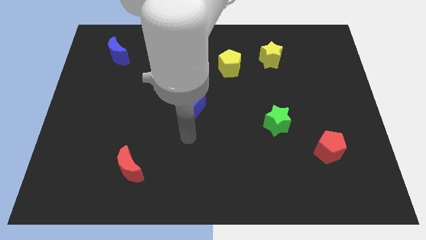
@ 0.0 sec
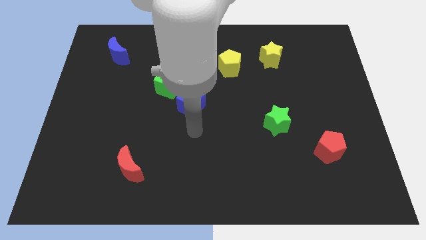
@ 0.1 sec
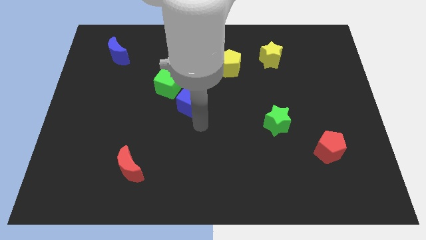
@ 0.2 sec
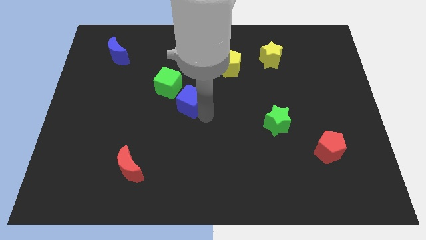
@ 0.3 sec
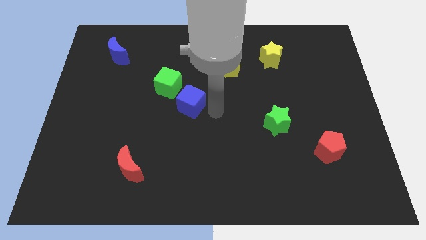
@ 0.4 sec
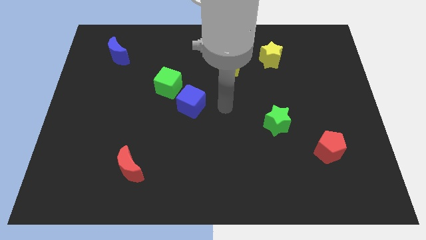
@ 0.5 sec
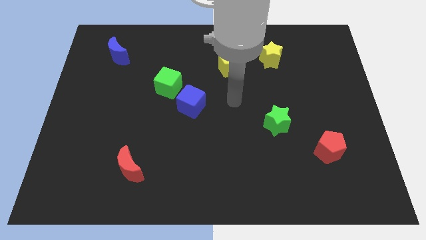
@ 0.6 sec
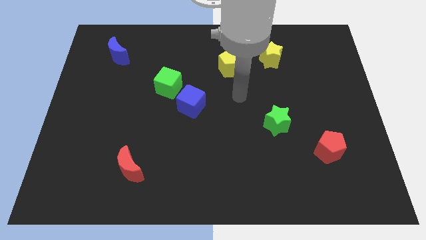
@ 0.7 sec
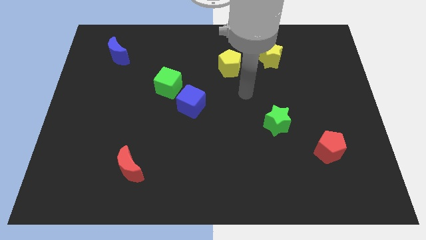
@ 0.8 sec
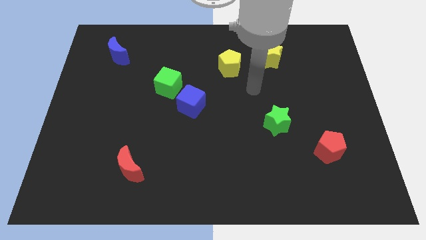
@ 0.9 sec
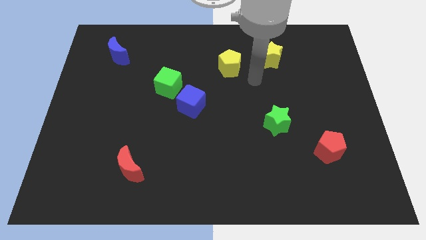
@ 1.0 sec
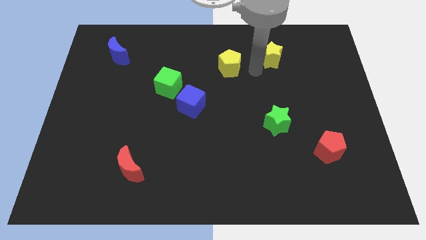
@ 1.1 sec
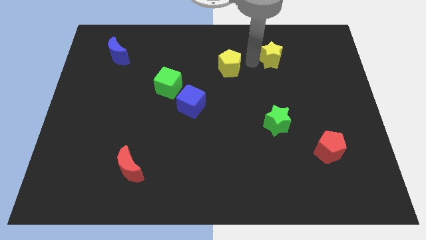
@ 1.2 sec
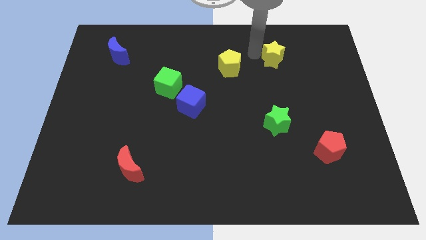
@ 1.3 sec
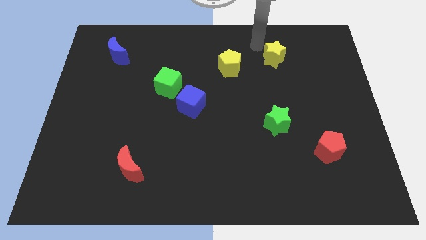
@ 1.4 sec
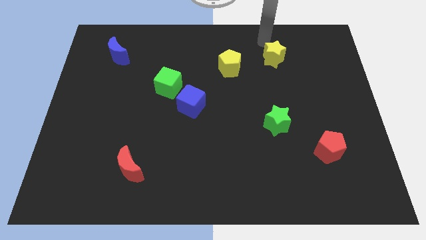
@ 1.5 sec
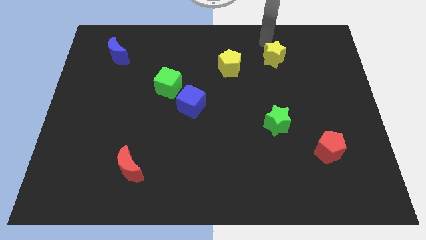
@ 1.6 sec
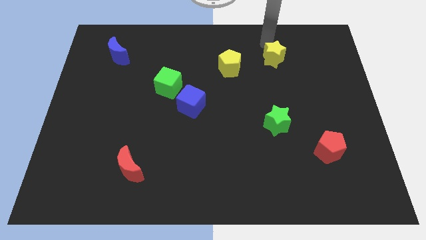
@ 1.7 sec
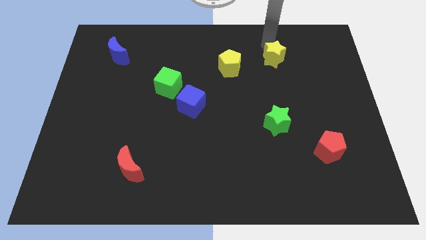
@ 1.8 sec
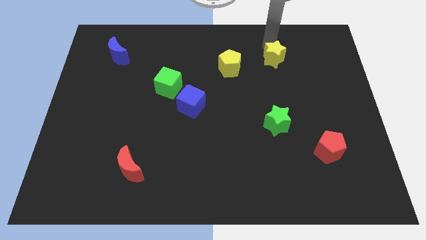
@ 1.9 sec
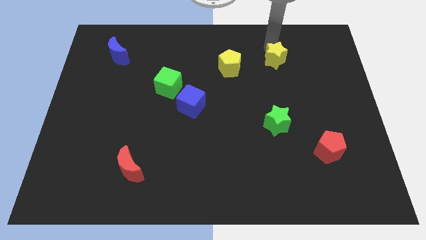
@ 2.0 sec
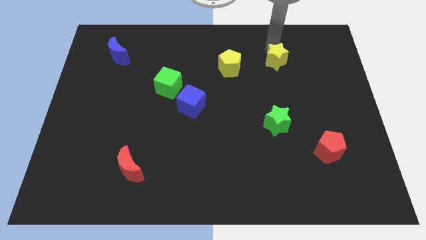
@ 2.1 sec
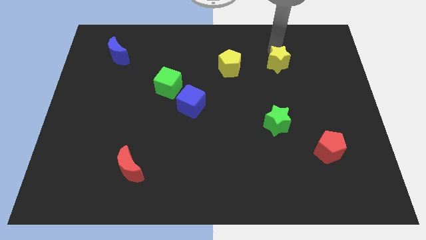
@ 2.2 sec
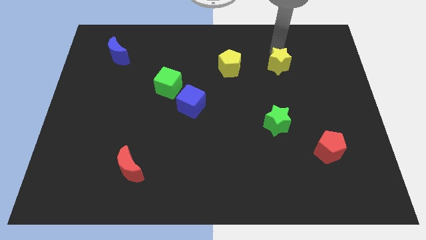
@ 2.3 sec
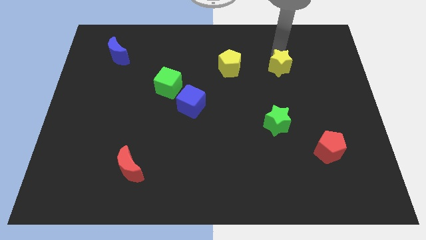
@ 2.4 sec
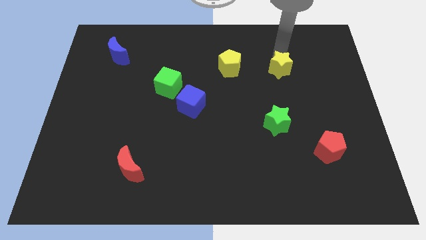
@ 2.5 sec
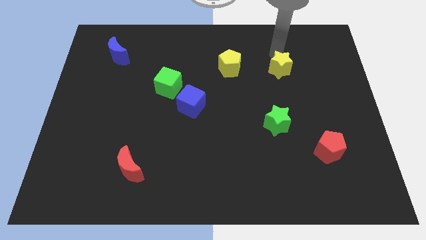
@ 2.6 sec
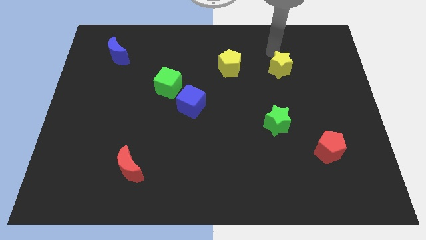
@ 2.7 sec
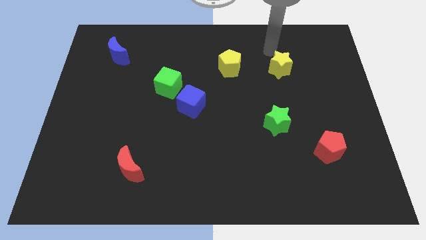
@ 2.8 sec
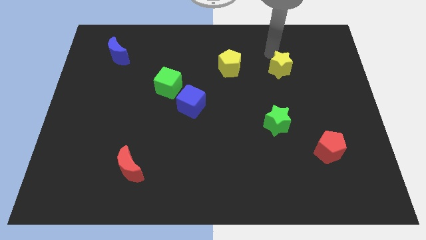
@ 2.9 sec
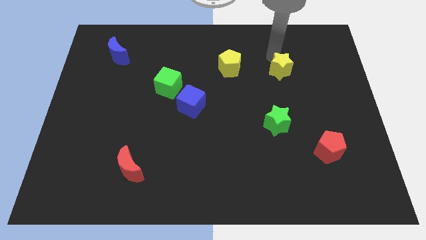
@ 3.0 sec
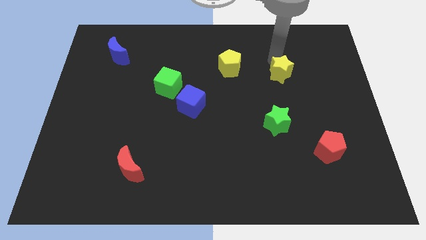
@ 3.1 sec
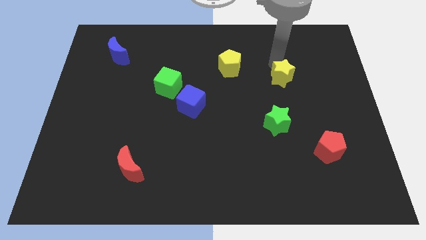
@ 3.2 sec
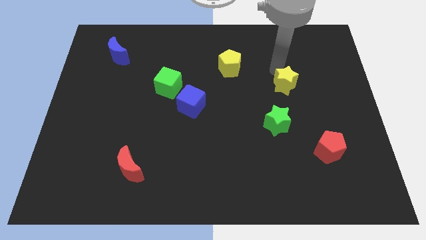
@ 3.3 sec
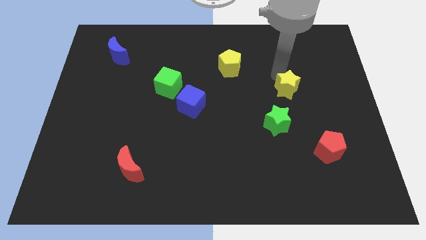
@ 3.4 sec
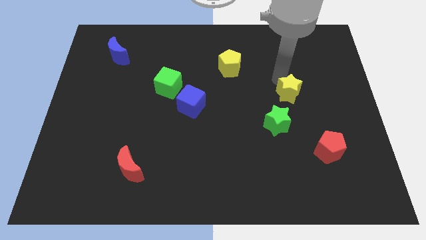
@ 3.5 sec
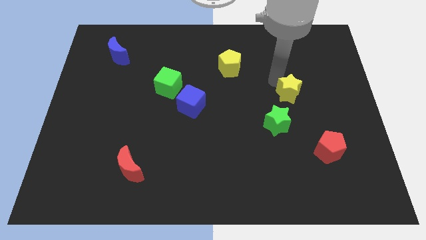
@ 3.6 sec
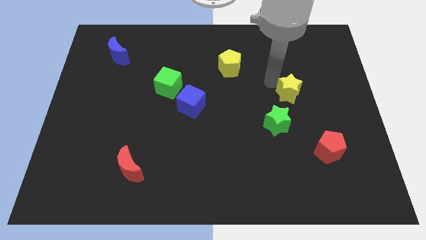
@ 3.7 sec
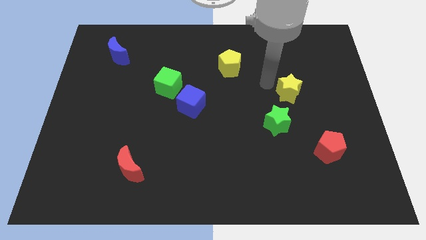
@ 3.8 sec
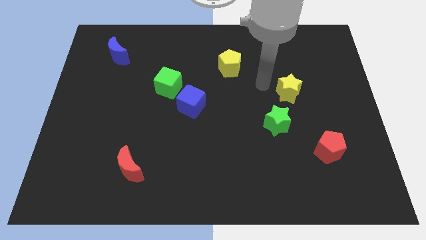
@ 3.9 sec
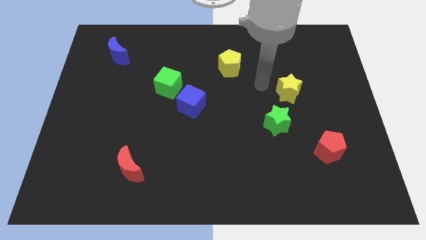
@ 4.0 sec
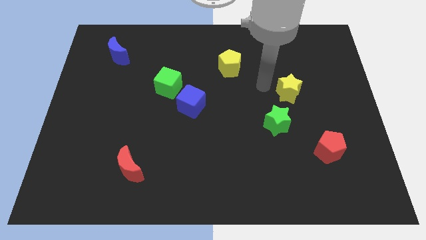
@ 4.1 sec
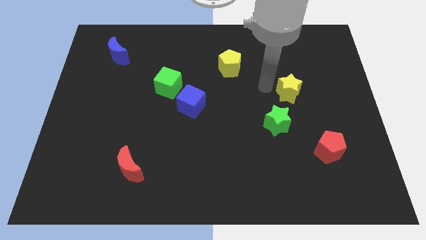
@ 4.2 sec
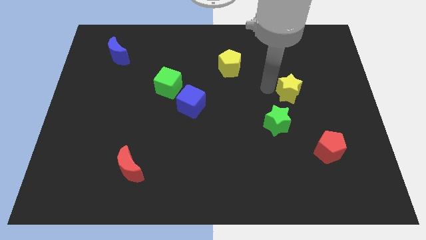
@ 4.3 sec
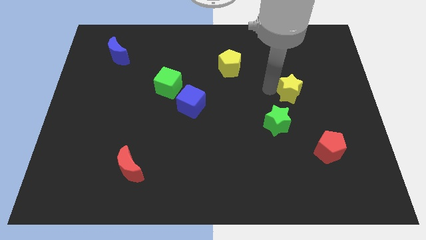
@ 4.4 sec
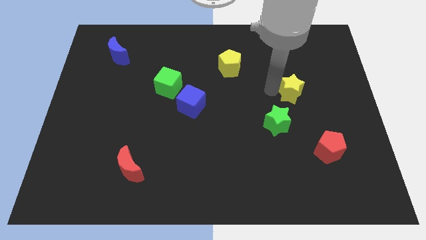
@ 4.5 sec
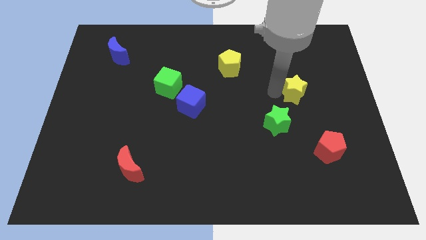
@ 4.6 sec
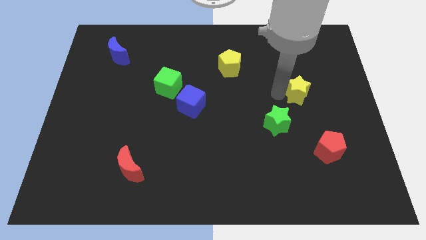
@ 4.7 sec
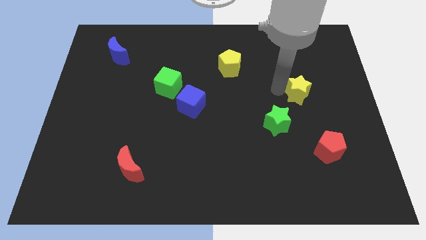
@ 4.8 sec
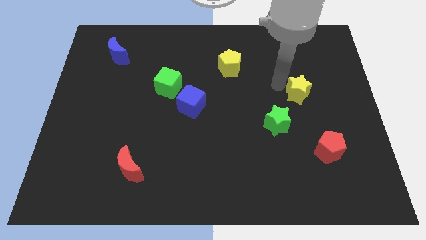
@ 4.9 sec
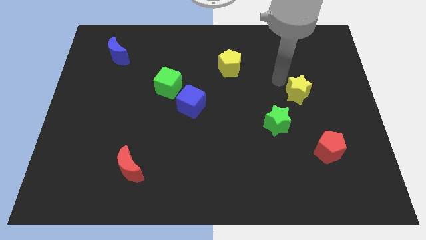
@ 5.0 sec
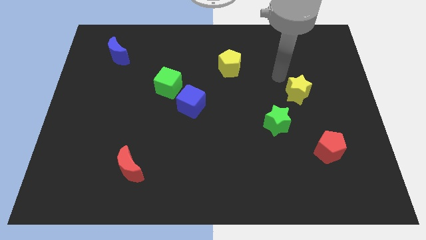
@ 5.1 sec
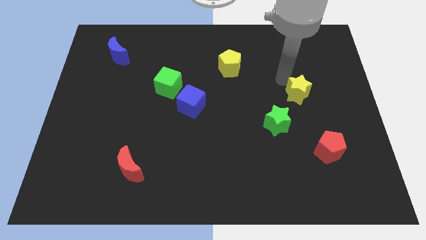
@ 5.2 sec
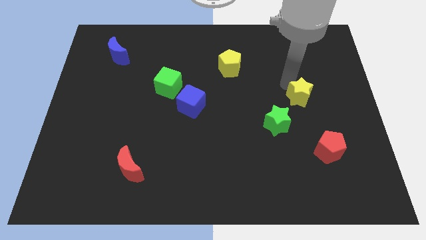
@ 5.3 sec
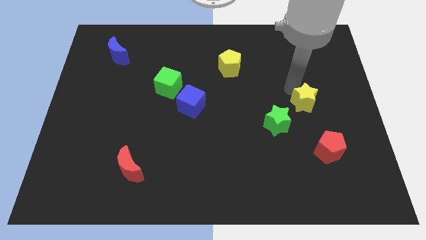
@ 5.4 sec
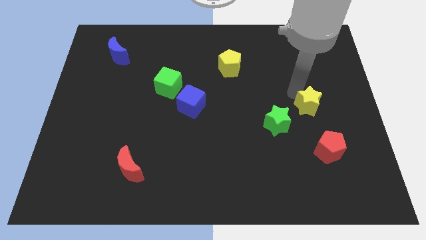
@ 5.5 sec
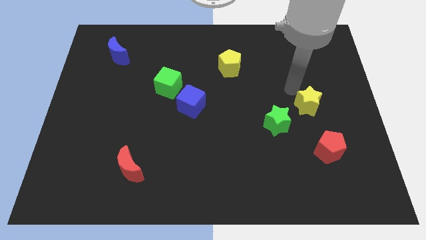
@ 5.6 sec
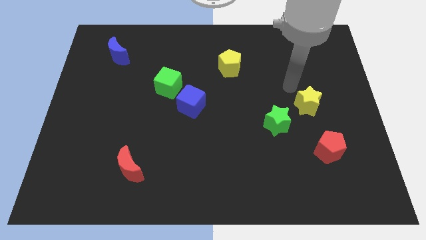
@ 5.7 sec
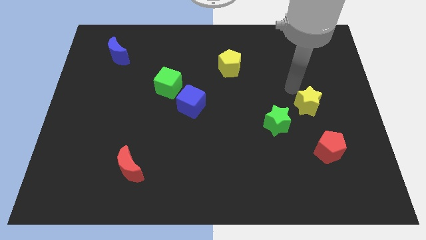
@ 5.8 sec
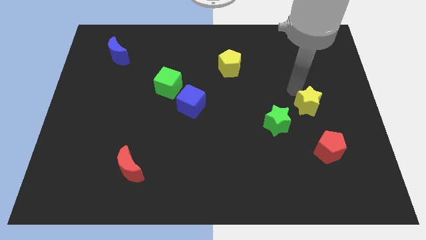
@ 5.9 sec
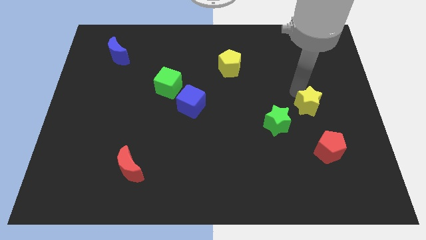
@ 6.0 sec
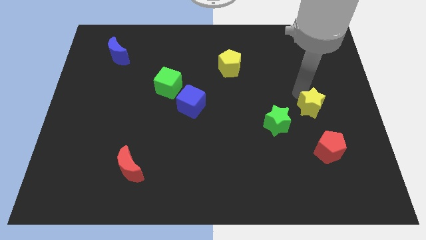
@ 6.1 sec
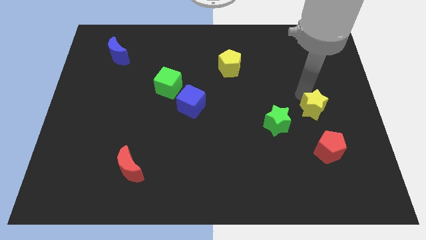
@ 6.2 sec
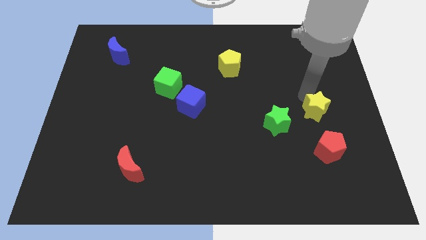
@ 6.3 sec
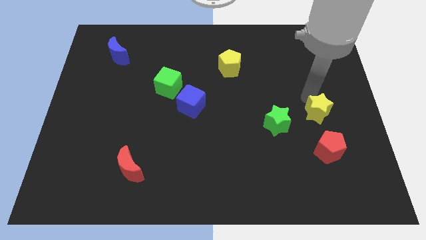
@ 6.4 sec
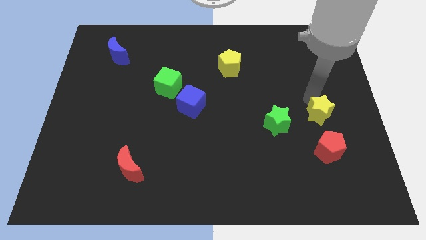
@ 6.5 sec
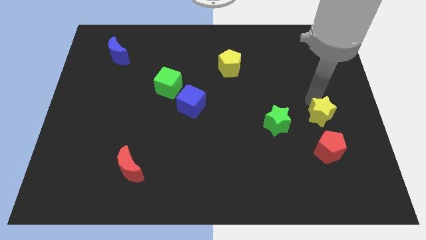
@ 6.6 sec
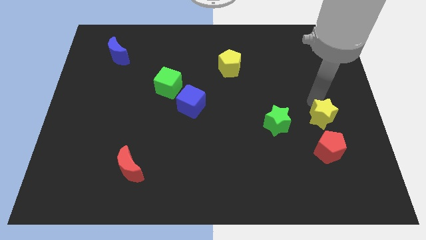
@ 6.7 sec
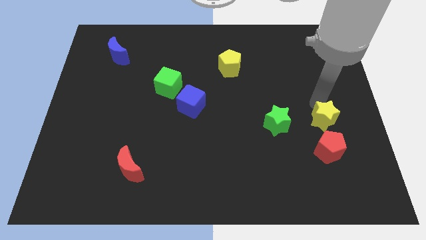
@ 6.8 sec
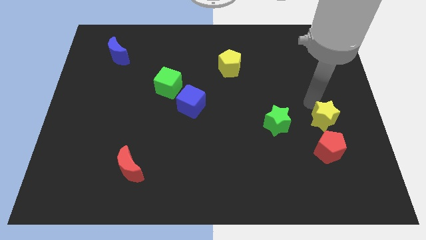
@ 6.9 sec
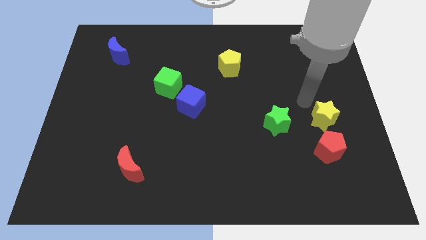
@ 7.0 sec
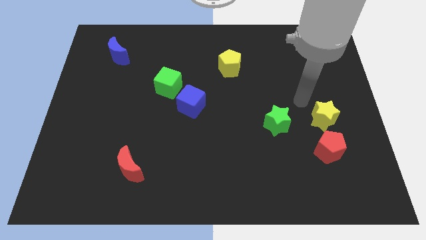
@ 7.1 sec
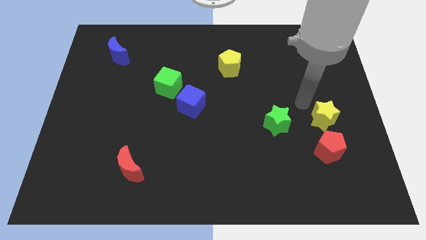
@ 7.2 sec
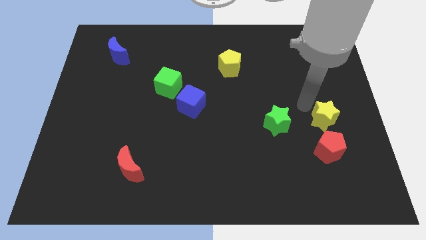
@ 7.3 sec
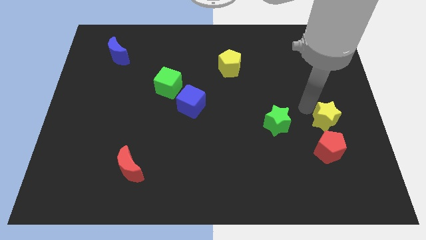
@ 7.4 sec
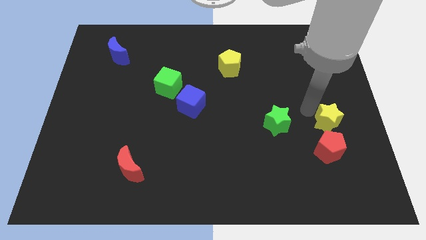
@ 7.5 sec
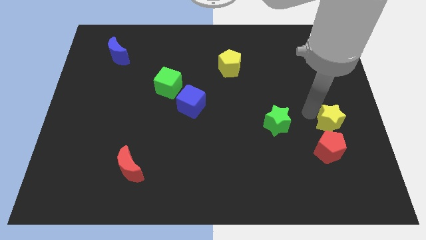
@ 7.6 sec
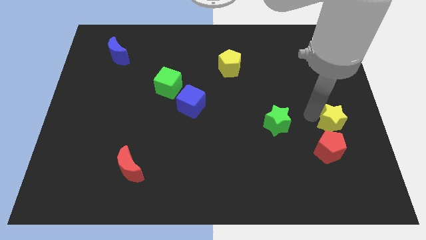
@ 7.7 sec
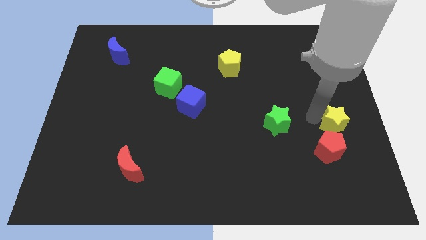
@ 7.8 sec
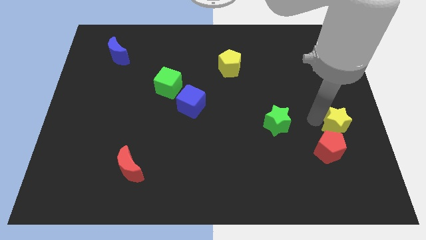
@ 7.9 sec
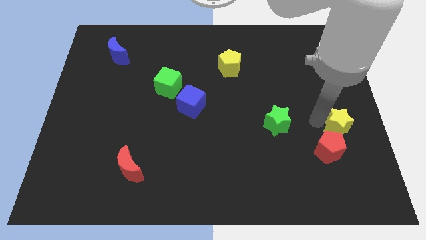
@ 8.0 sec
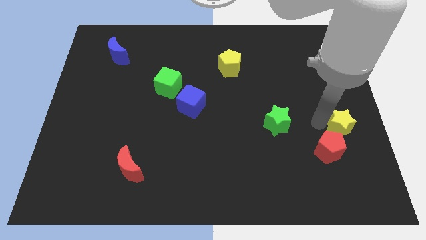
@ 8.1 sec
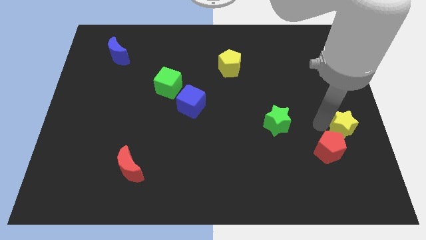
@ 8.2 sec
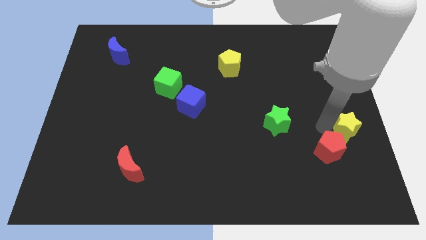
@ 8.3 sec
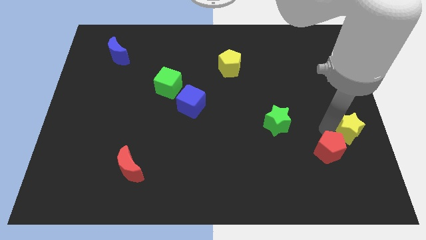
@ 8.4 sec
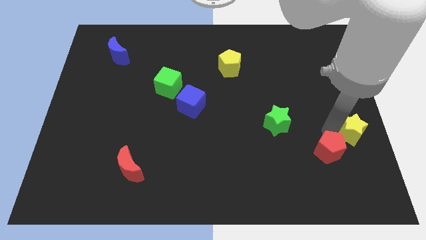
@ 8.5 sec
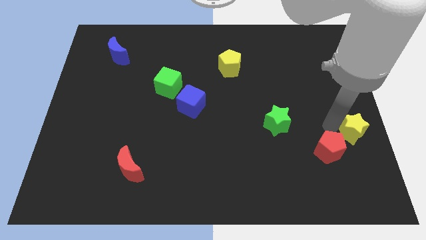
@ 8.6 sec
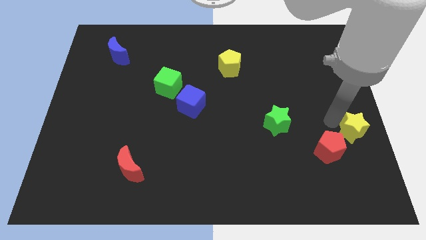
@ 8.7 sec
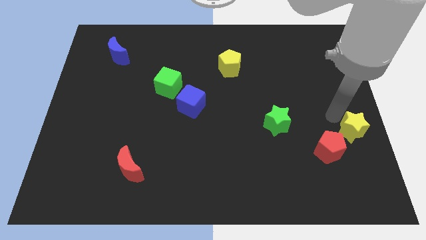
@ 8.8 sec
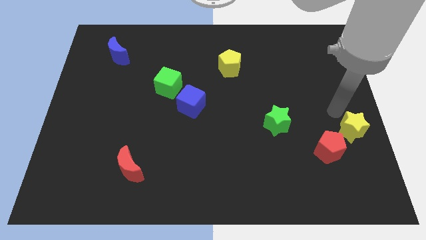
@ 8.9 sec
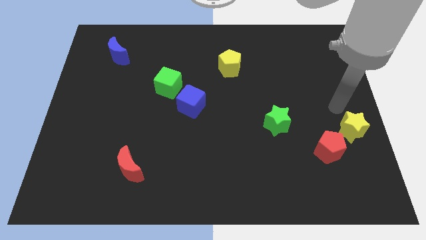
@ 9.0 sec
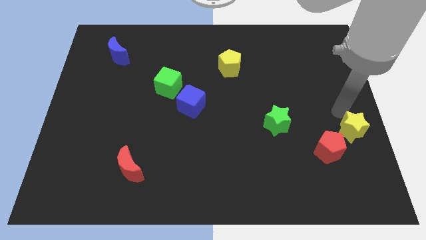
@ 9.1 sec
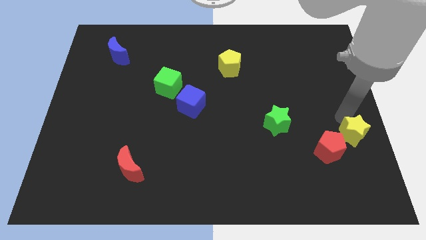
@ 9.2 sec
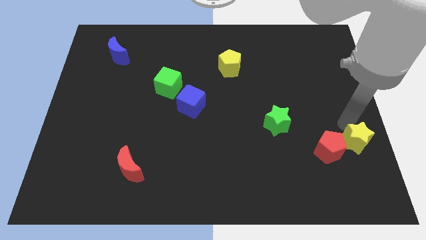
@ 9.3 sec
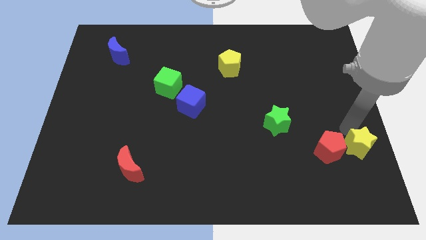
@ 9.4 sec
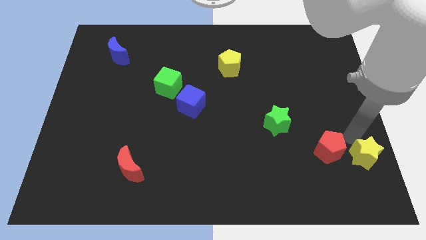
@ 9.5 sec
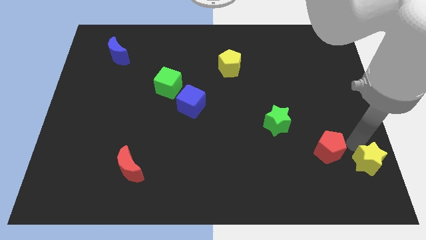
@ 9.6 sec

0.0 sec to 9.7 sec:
put the yellow star to the bottom right of the board
